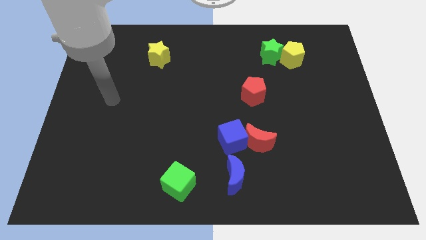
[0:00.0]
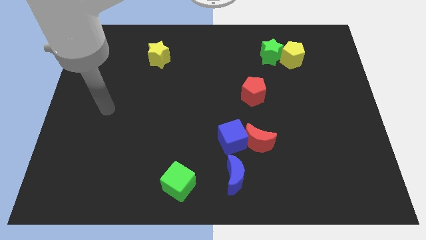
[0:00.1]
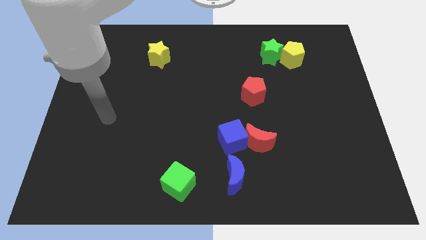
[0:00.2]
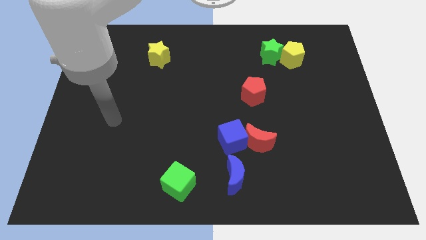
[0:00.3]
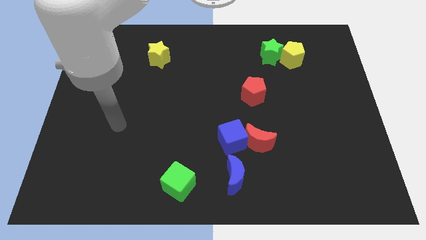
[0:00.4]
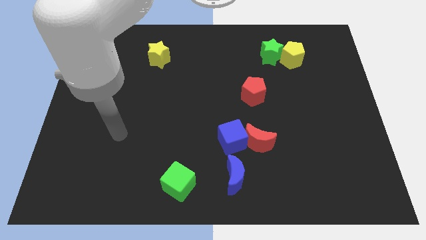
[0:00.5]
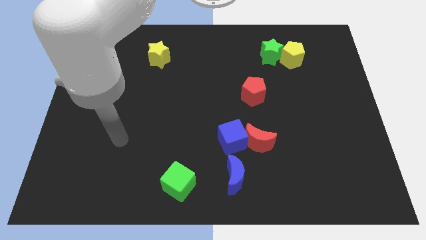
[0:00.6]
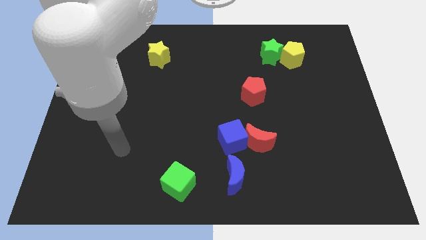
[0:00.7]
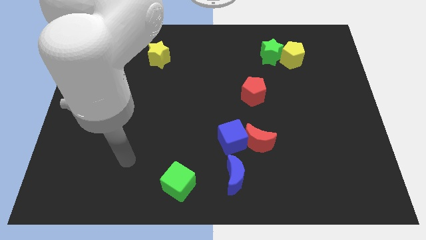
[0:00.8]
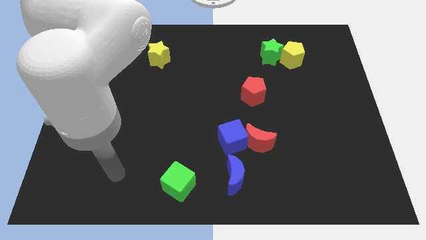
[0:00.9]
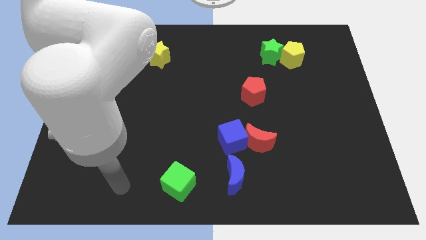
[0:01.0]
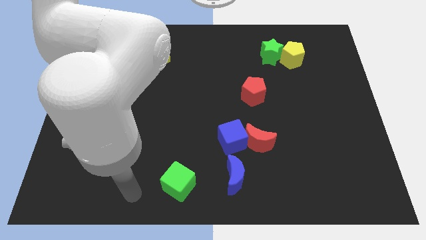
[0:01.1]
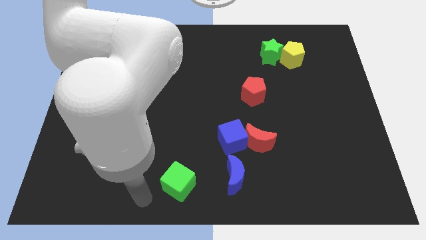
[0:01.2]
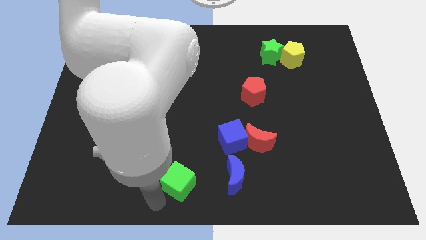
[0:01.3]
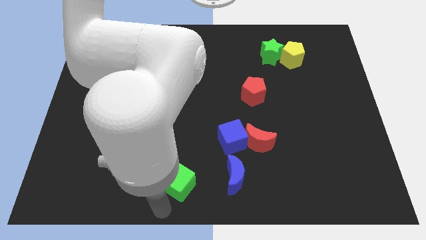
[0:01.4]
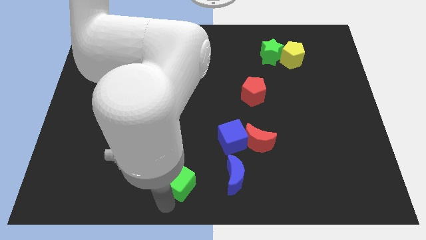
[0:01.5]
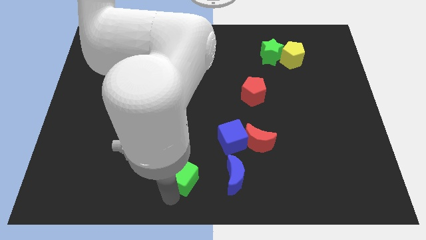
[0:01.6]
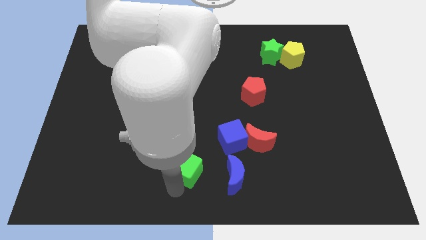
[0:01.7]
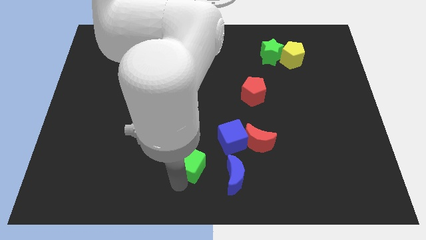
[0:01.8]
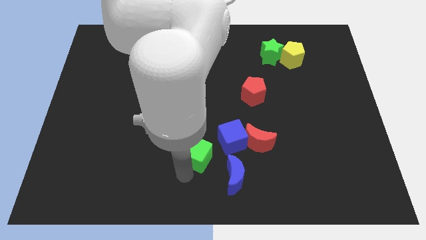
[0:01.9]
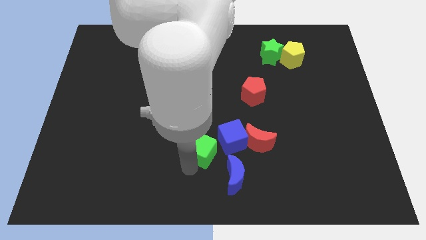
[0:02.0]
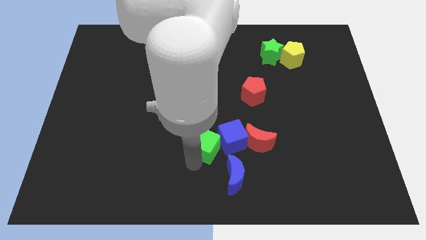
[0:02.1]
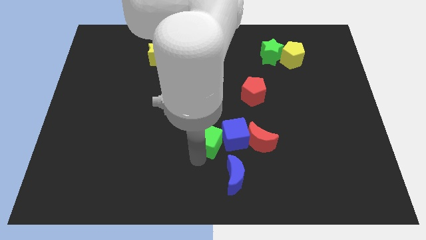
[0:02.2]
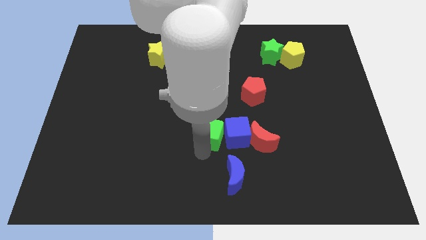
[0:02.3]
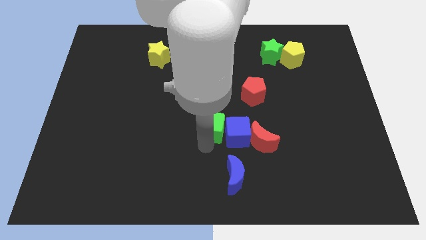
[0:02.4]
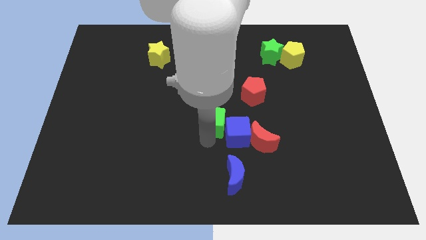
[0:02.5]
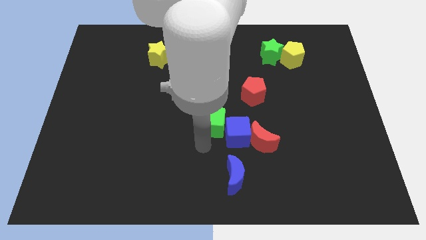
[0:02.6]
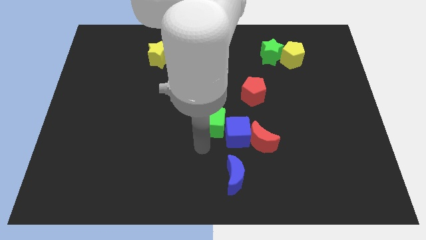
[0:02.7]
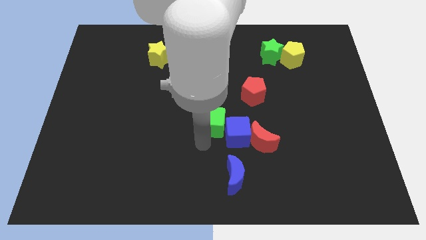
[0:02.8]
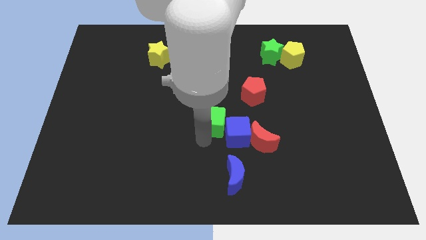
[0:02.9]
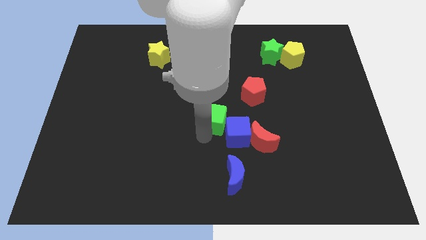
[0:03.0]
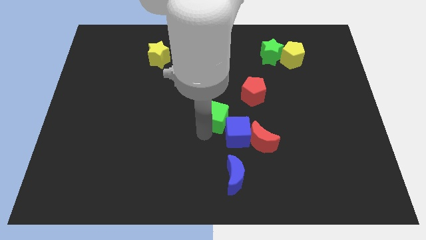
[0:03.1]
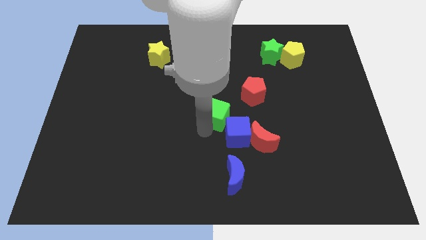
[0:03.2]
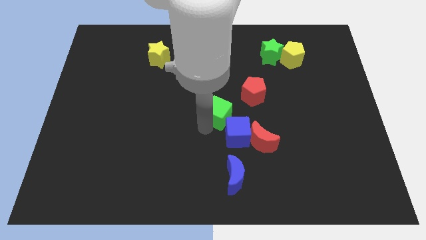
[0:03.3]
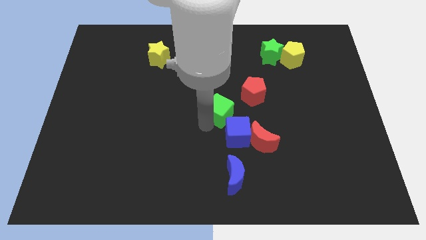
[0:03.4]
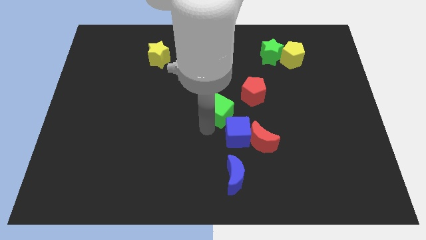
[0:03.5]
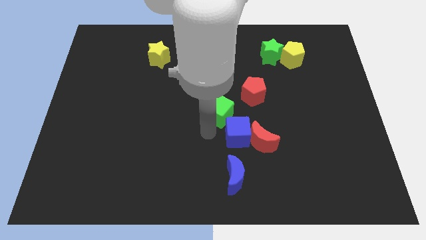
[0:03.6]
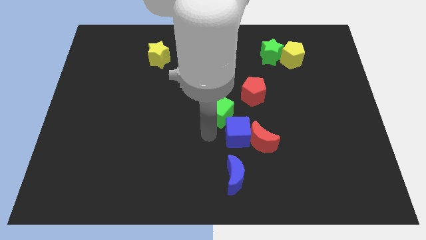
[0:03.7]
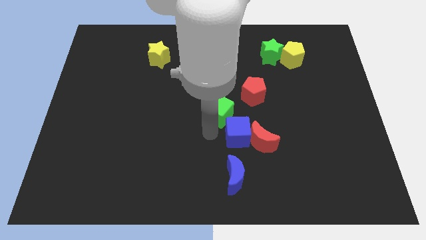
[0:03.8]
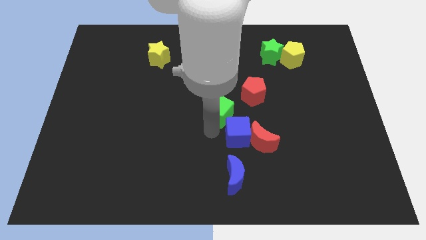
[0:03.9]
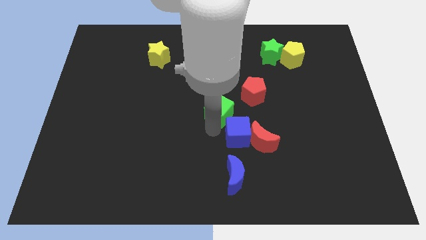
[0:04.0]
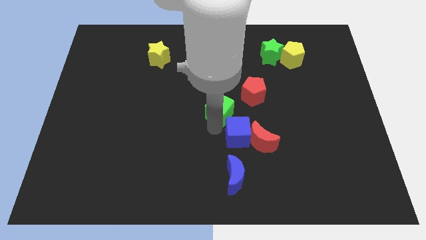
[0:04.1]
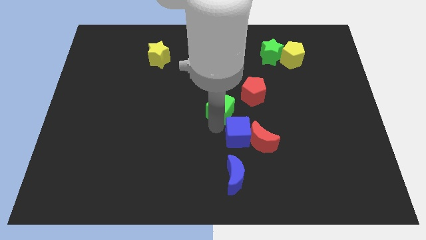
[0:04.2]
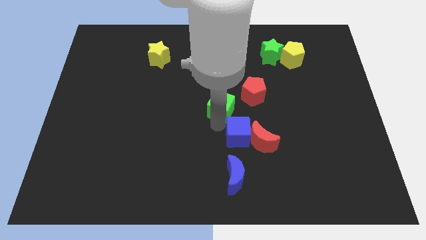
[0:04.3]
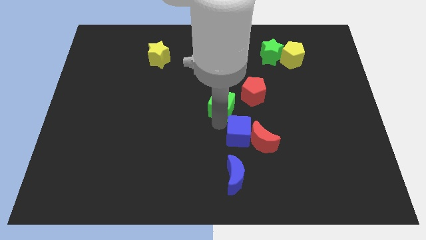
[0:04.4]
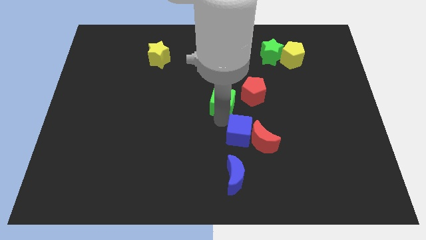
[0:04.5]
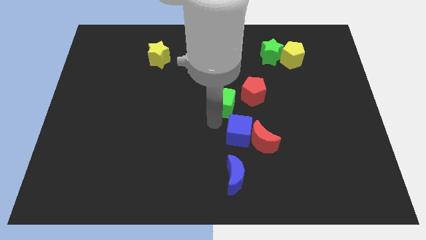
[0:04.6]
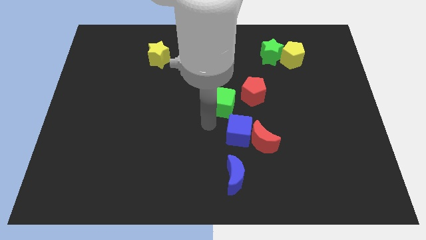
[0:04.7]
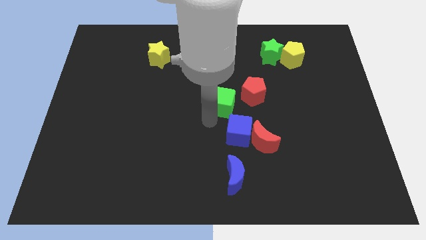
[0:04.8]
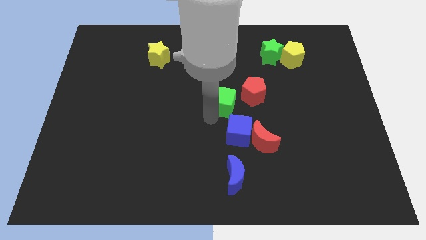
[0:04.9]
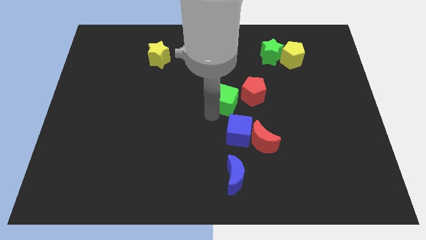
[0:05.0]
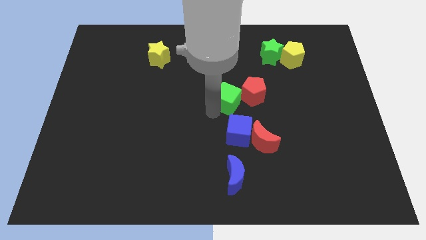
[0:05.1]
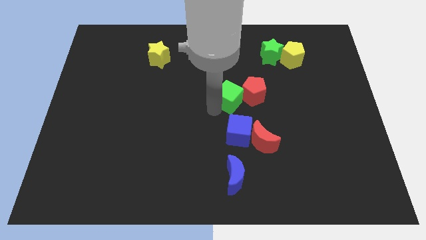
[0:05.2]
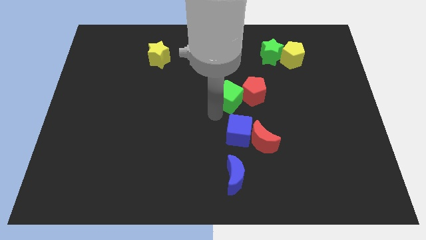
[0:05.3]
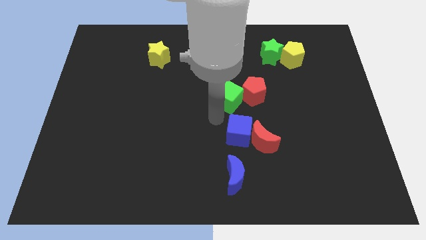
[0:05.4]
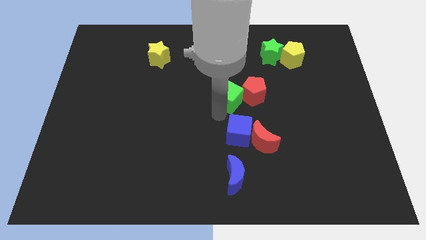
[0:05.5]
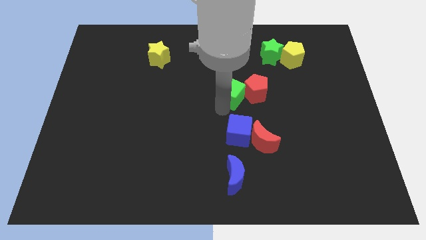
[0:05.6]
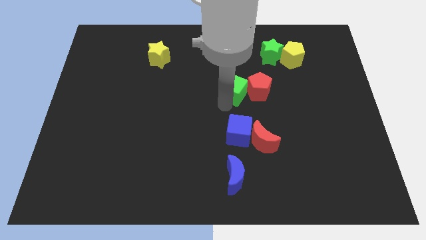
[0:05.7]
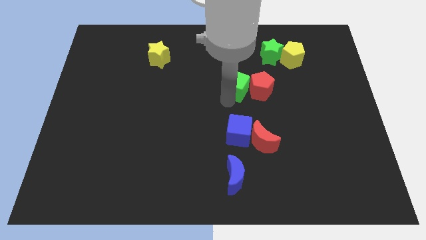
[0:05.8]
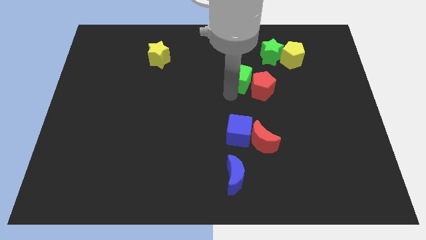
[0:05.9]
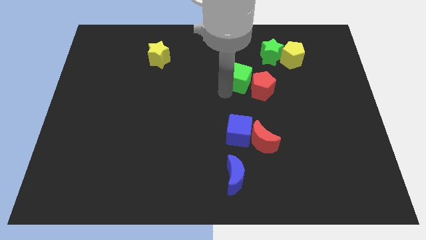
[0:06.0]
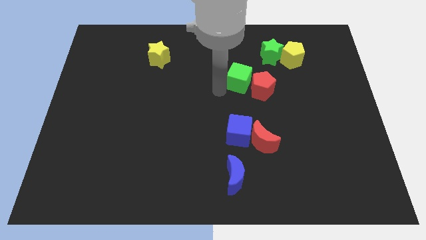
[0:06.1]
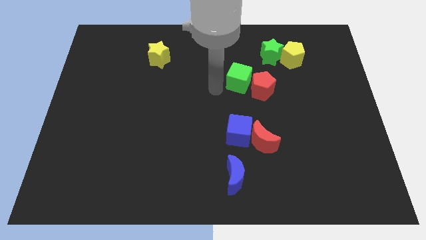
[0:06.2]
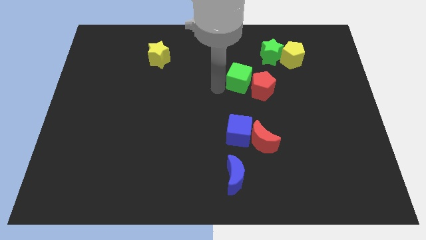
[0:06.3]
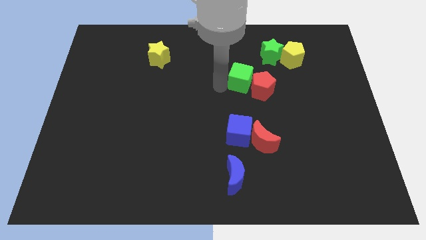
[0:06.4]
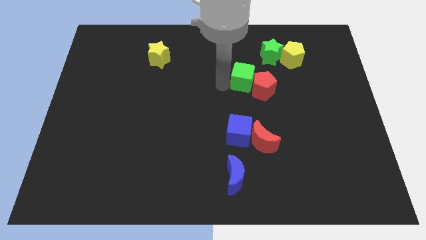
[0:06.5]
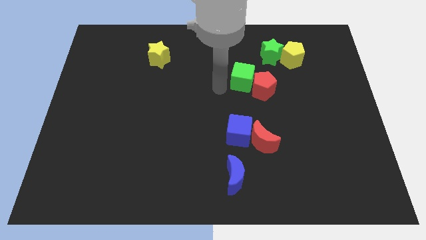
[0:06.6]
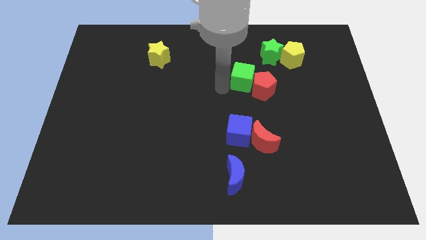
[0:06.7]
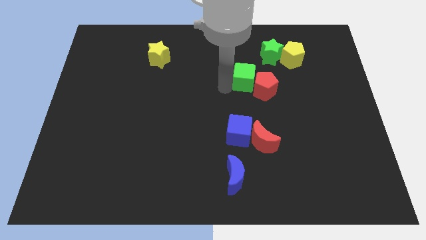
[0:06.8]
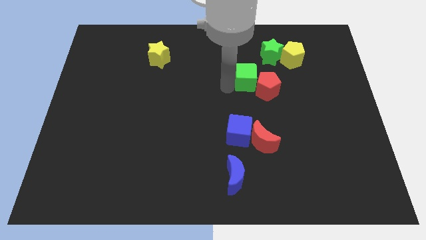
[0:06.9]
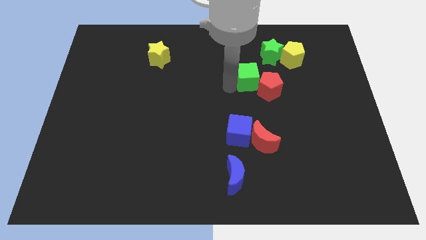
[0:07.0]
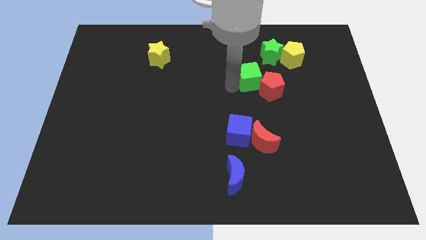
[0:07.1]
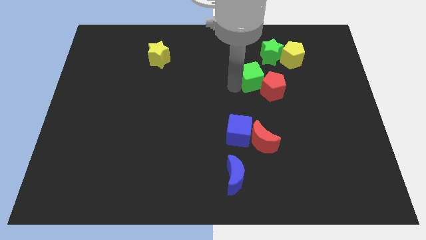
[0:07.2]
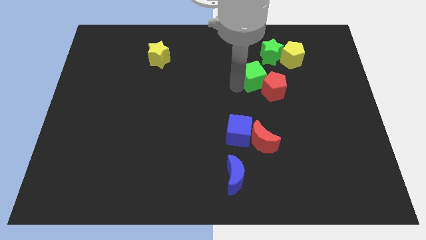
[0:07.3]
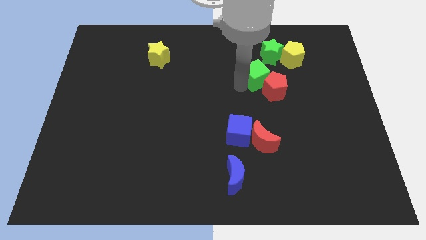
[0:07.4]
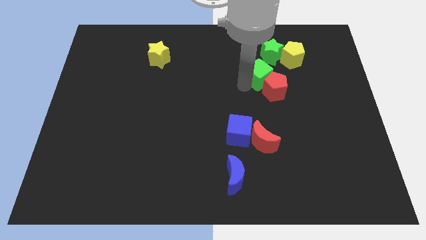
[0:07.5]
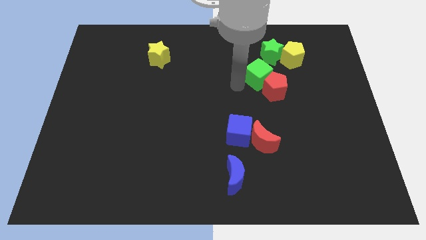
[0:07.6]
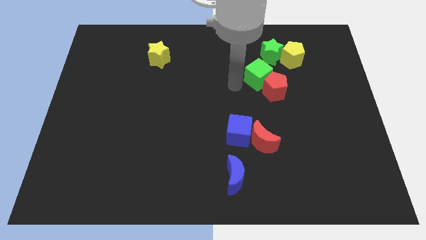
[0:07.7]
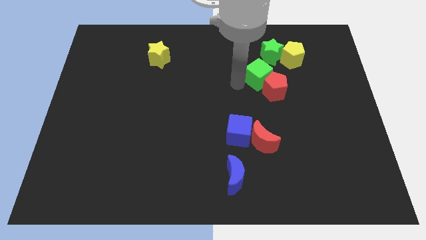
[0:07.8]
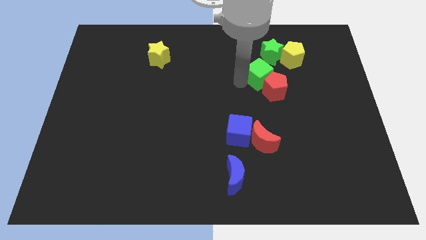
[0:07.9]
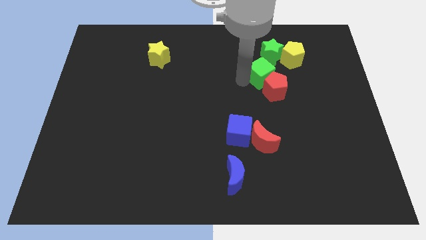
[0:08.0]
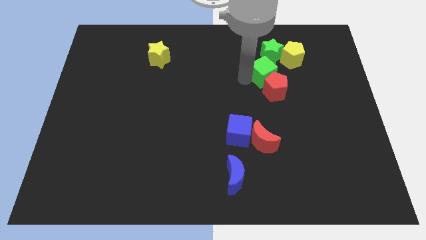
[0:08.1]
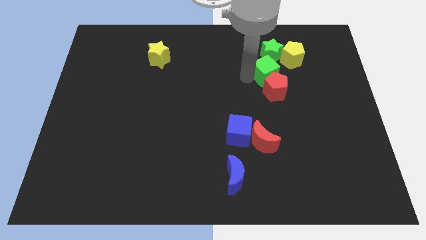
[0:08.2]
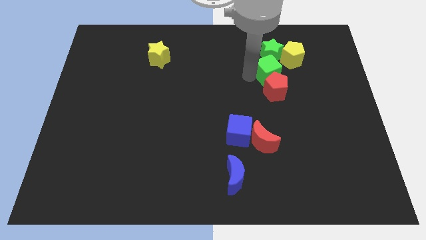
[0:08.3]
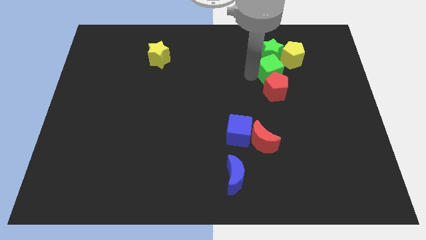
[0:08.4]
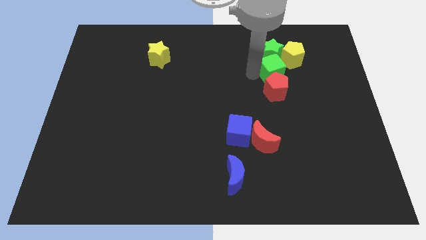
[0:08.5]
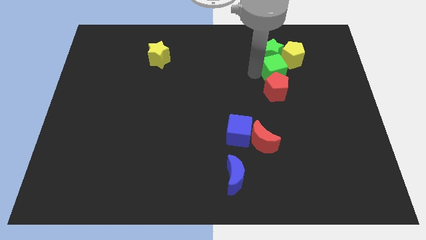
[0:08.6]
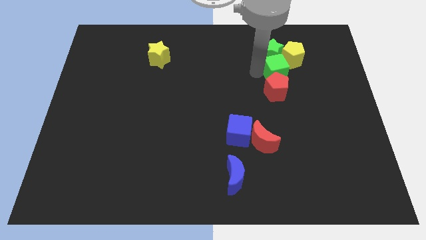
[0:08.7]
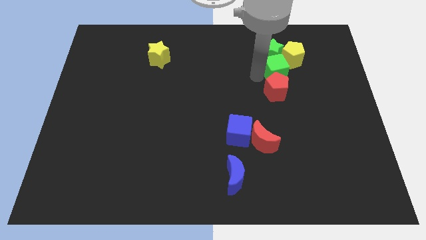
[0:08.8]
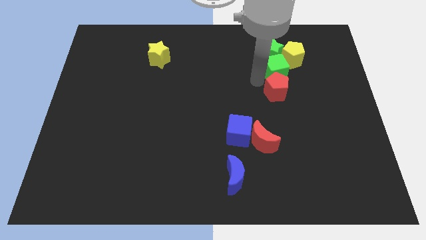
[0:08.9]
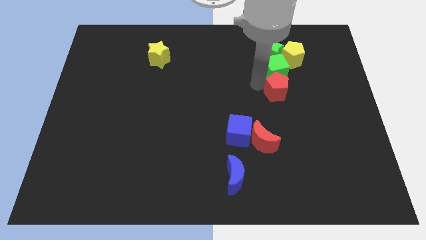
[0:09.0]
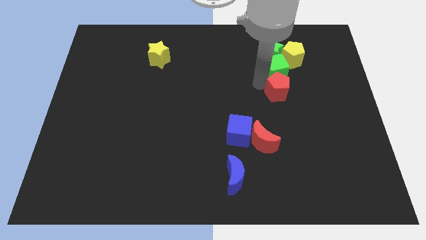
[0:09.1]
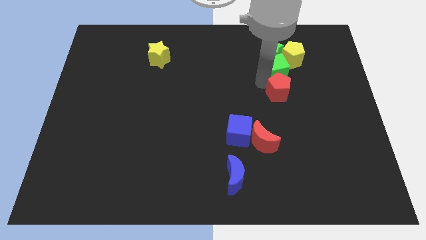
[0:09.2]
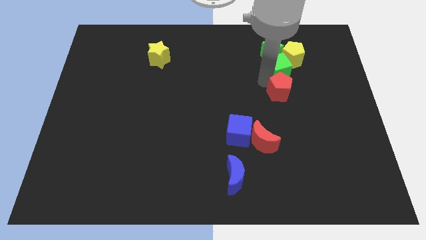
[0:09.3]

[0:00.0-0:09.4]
move the green cube close to the yellow pentagon
